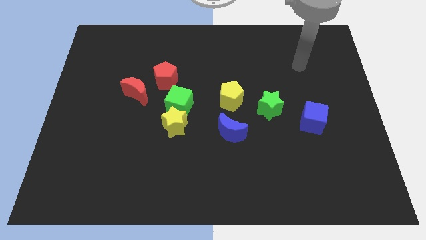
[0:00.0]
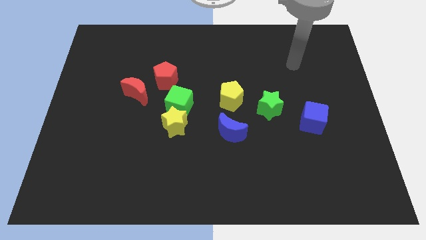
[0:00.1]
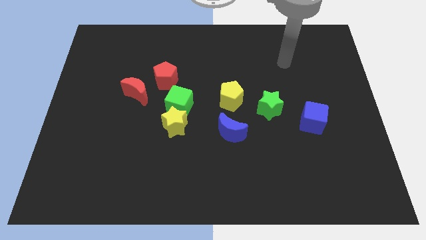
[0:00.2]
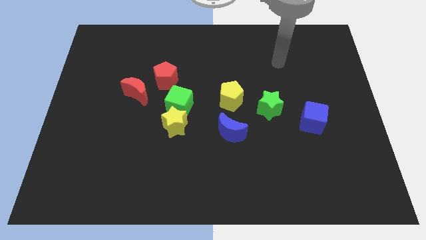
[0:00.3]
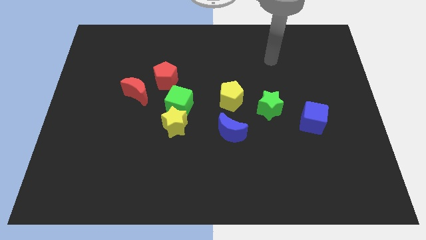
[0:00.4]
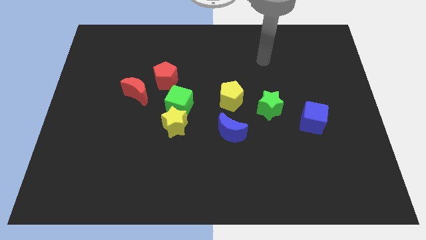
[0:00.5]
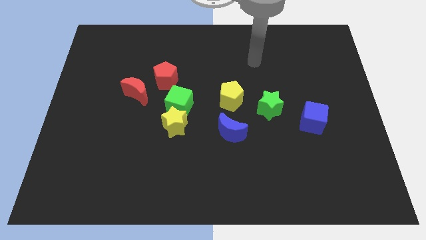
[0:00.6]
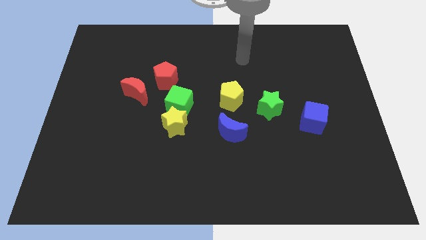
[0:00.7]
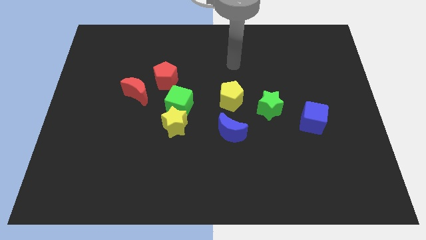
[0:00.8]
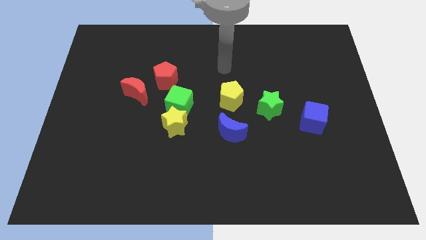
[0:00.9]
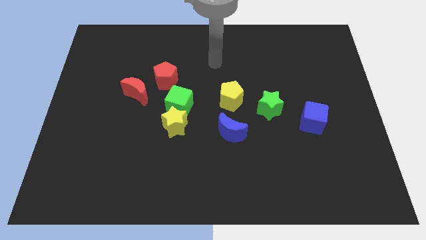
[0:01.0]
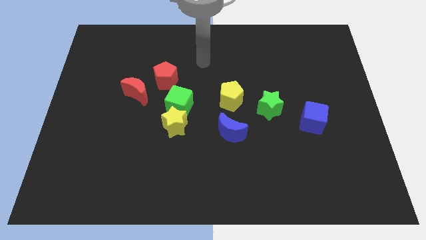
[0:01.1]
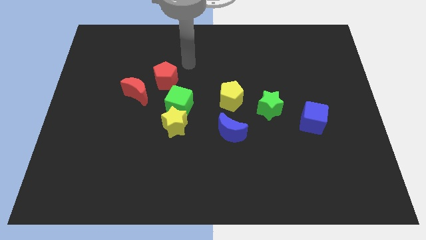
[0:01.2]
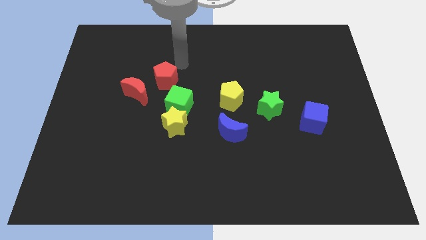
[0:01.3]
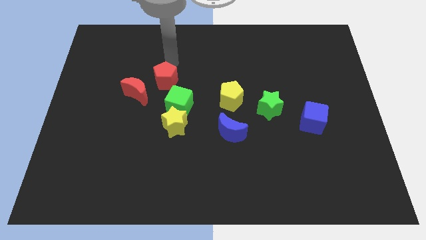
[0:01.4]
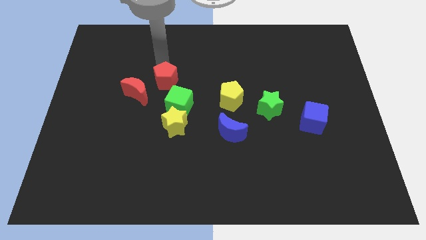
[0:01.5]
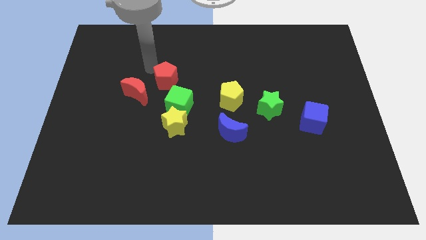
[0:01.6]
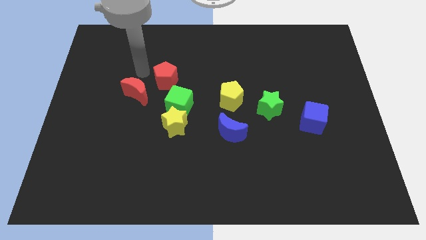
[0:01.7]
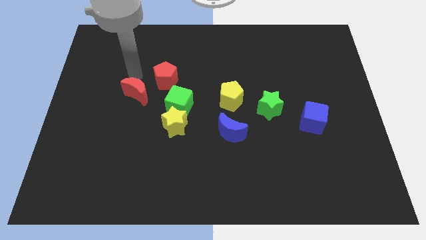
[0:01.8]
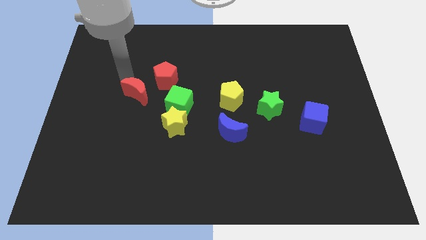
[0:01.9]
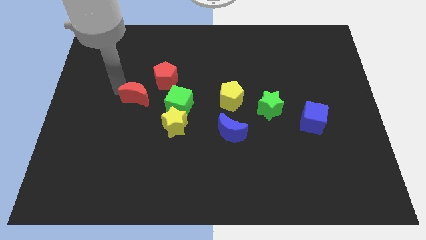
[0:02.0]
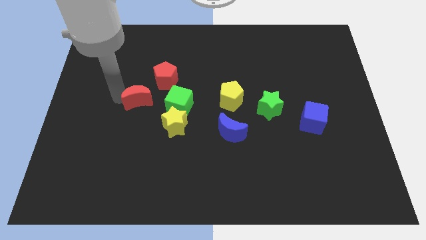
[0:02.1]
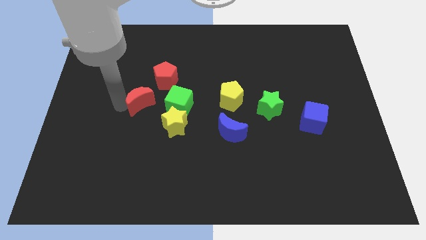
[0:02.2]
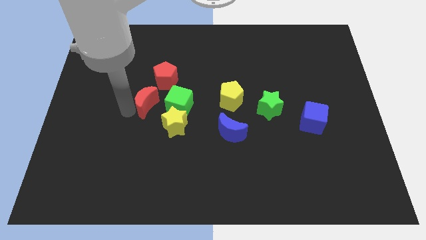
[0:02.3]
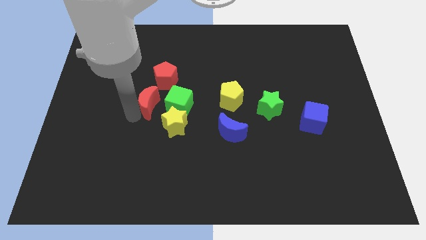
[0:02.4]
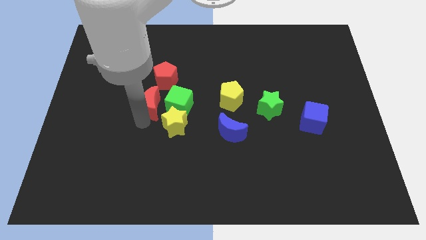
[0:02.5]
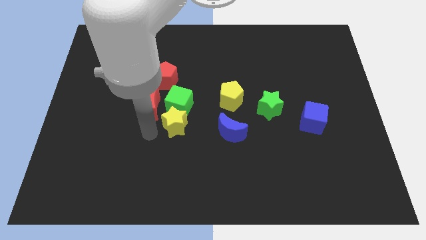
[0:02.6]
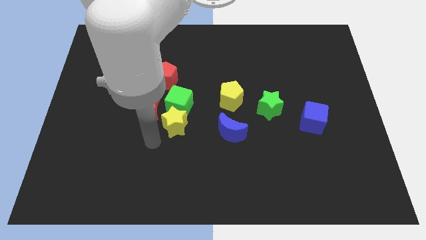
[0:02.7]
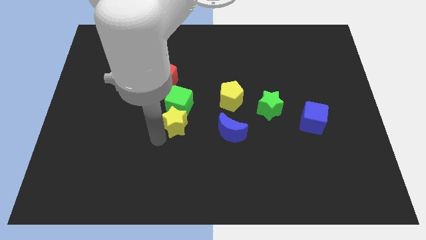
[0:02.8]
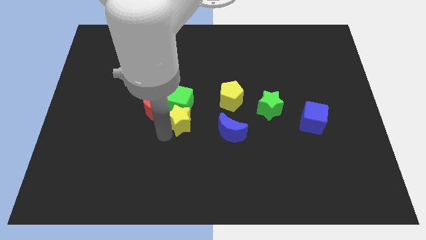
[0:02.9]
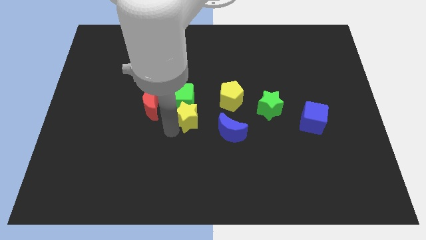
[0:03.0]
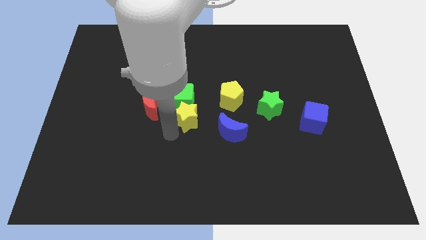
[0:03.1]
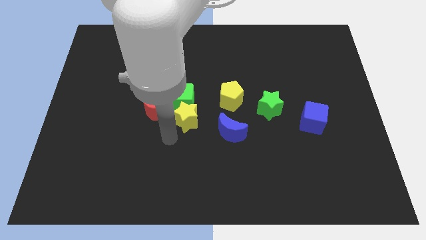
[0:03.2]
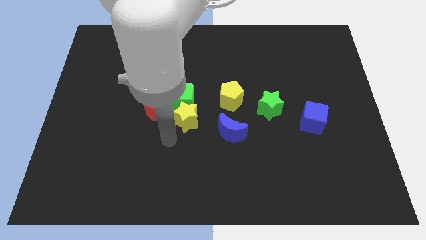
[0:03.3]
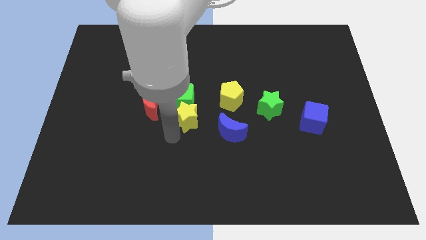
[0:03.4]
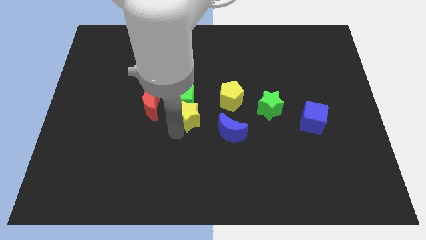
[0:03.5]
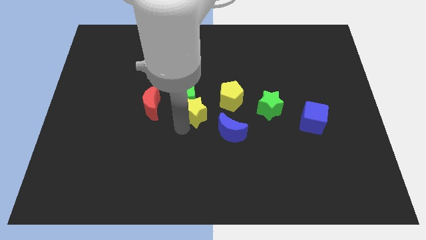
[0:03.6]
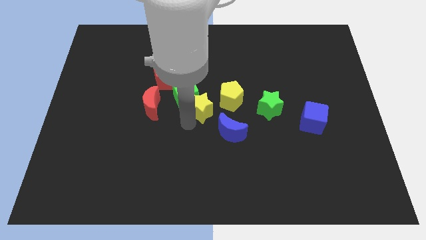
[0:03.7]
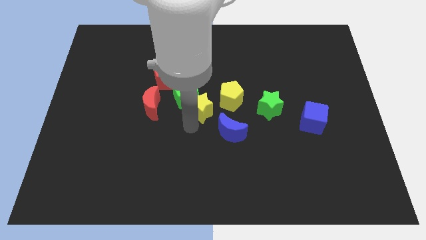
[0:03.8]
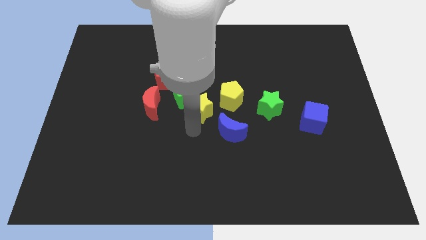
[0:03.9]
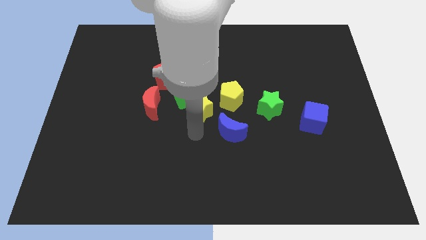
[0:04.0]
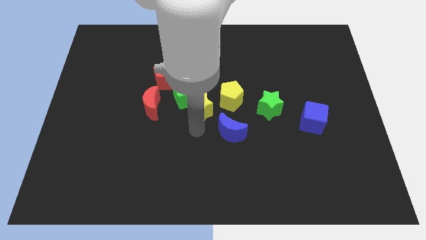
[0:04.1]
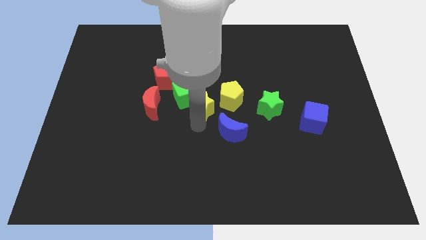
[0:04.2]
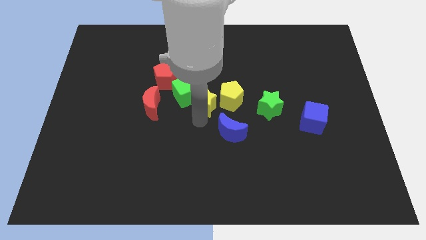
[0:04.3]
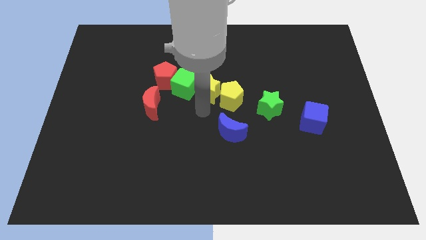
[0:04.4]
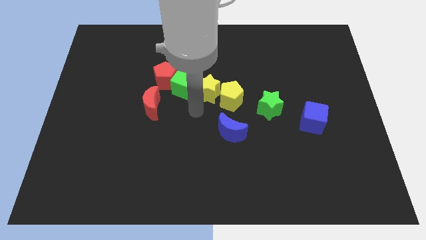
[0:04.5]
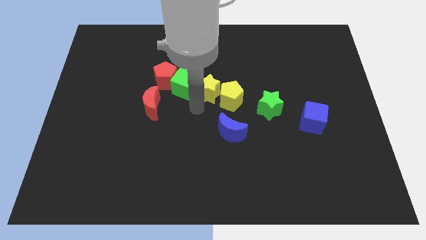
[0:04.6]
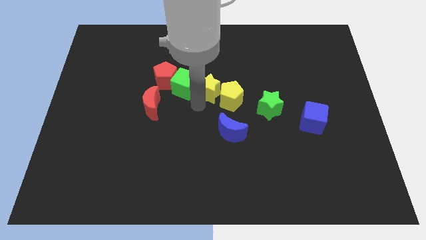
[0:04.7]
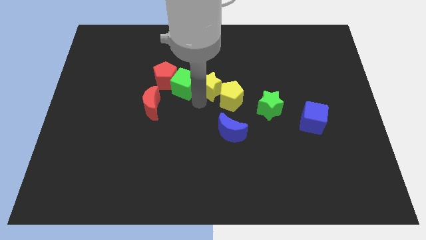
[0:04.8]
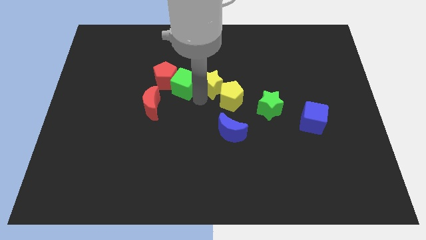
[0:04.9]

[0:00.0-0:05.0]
slide the yellow star above the yellow pentagon

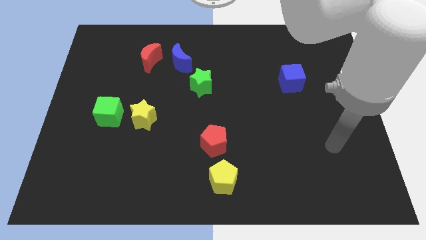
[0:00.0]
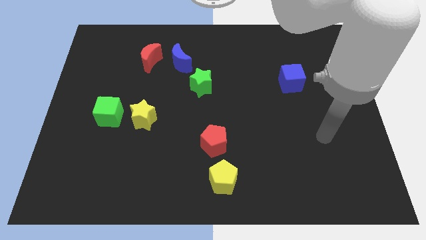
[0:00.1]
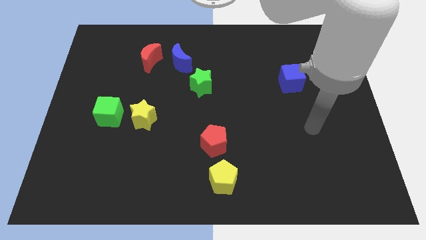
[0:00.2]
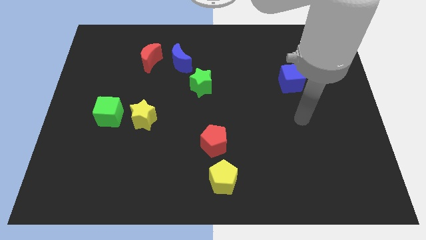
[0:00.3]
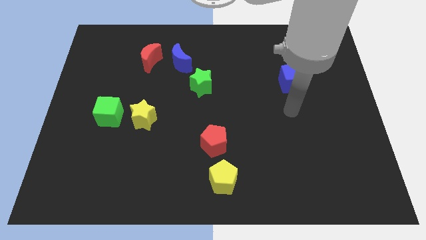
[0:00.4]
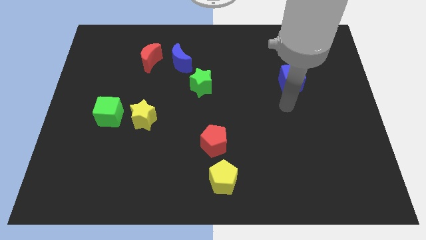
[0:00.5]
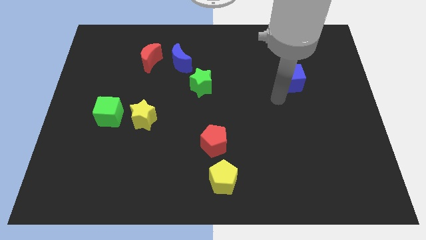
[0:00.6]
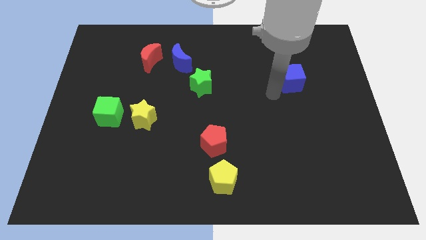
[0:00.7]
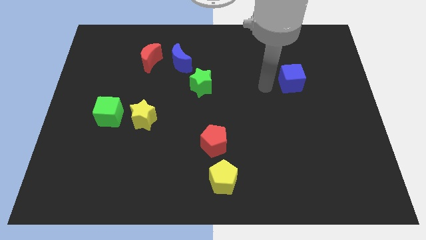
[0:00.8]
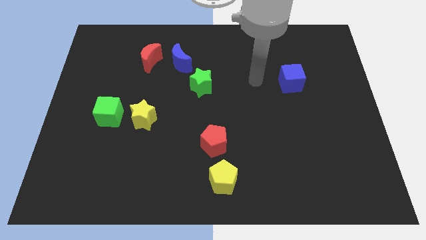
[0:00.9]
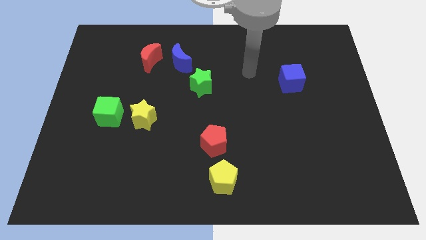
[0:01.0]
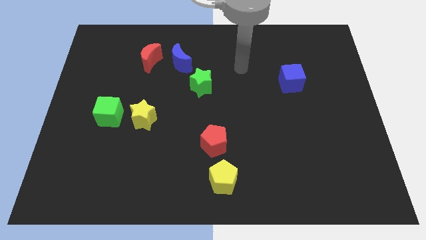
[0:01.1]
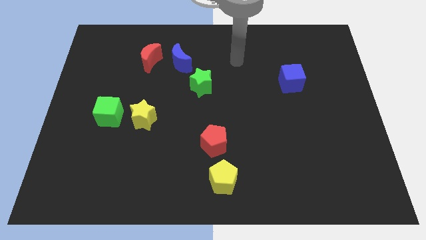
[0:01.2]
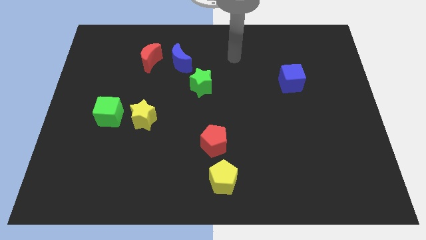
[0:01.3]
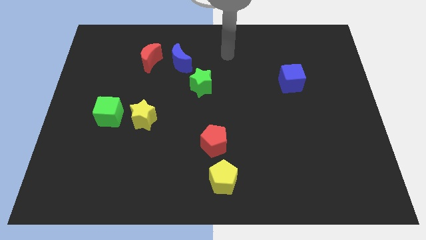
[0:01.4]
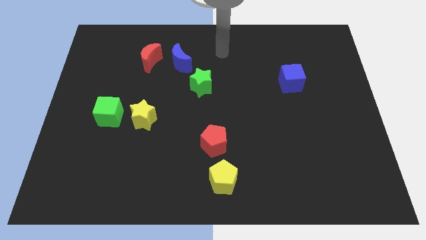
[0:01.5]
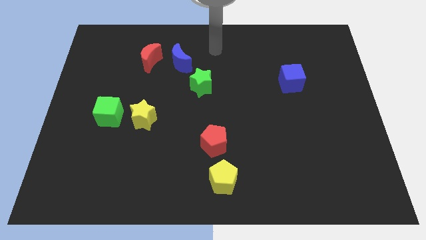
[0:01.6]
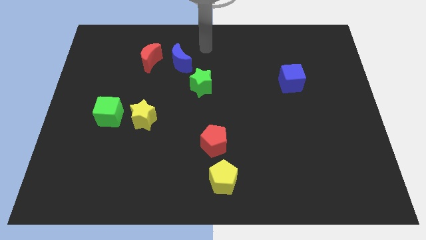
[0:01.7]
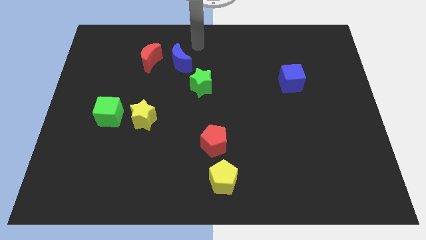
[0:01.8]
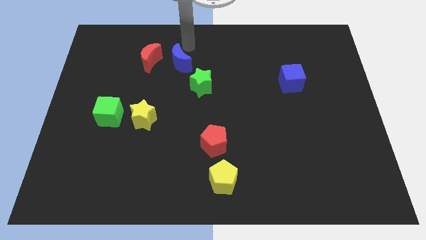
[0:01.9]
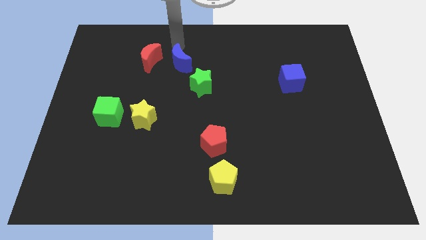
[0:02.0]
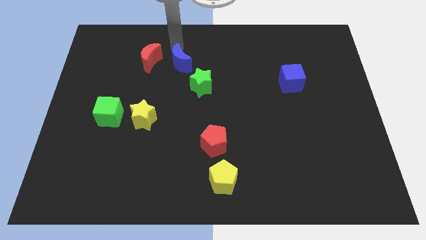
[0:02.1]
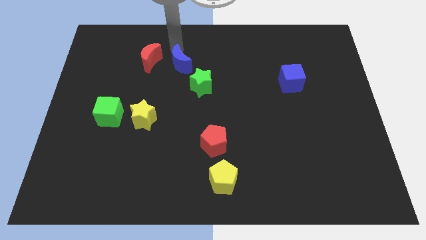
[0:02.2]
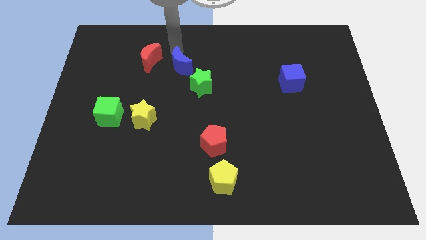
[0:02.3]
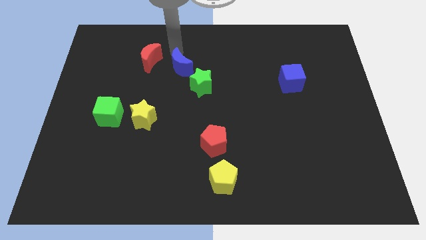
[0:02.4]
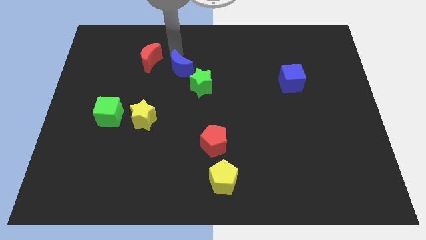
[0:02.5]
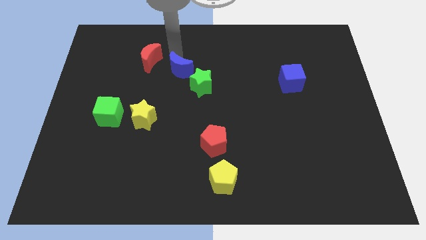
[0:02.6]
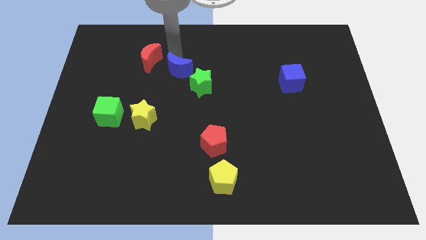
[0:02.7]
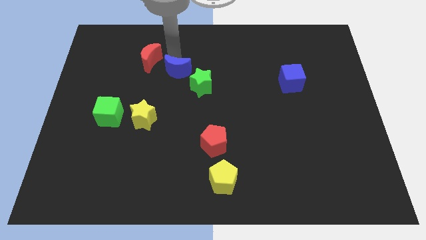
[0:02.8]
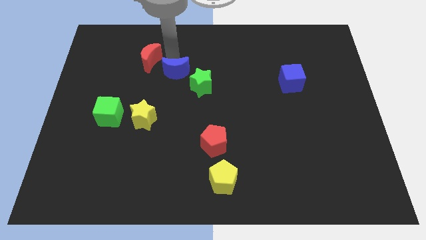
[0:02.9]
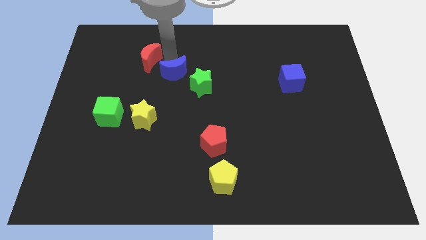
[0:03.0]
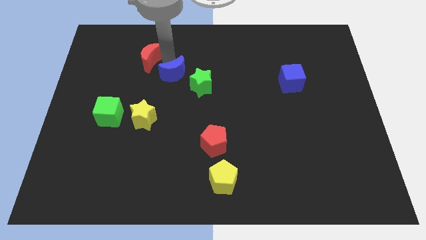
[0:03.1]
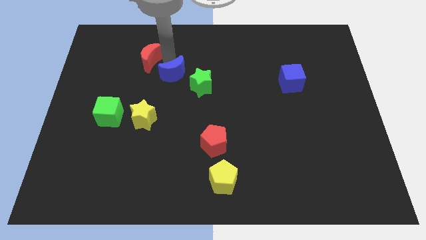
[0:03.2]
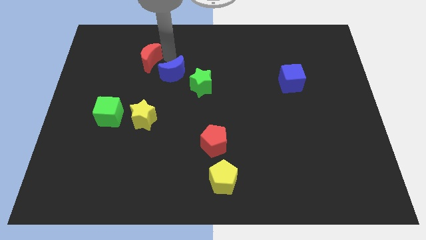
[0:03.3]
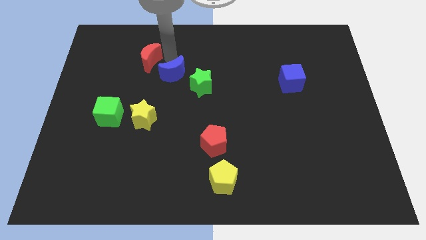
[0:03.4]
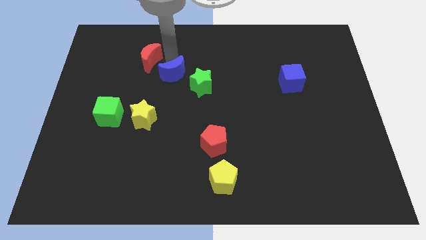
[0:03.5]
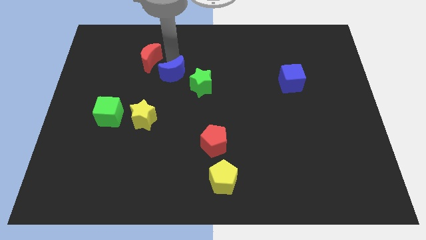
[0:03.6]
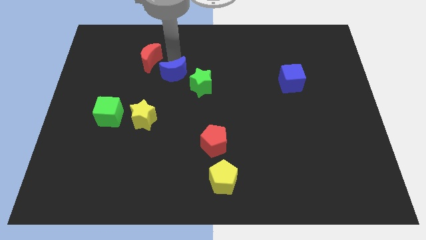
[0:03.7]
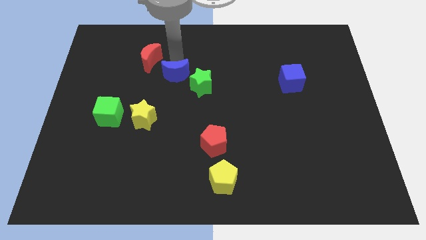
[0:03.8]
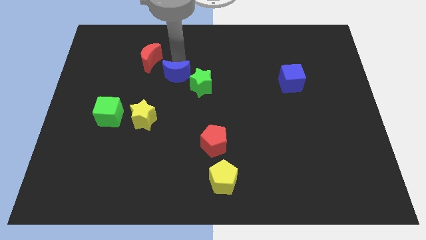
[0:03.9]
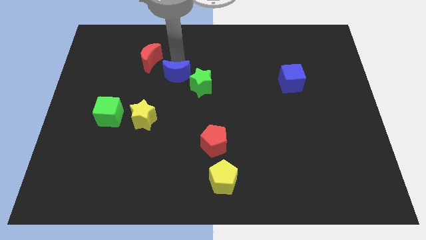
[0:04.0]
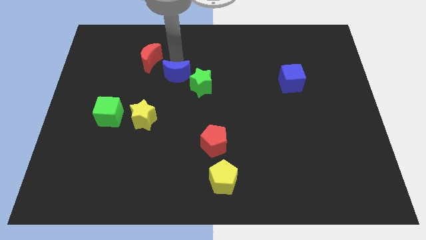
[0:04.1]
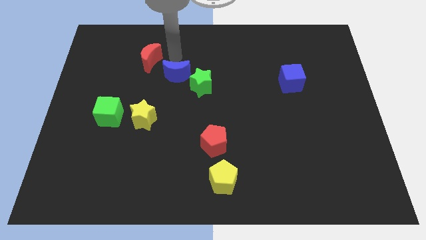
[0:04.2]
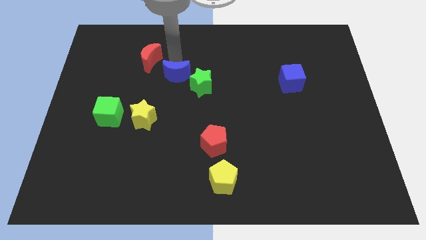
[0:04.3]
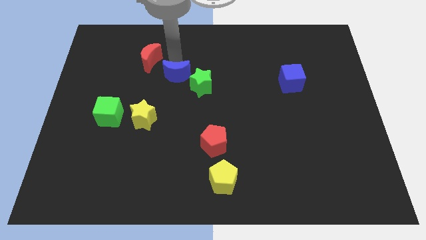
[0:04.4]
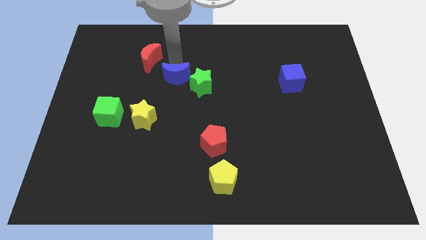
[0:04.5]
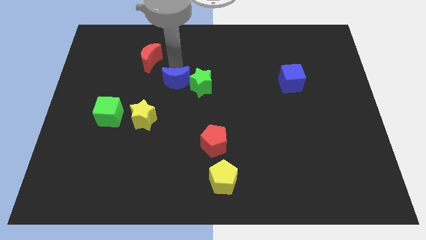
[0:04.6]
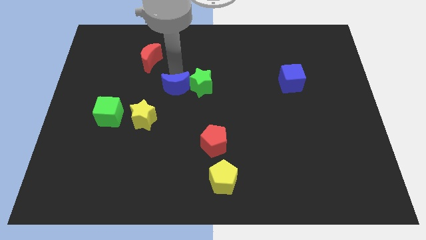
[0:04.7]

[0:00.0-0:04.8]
slide the blue moon to the bottom left of the green star
